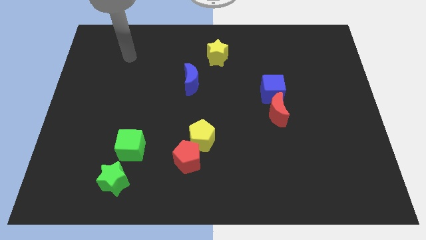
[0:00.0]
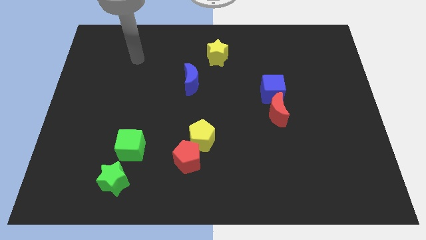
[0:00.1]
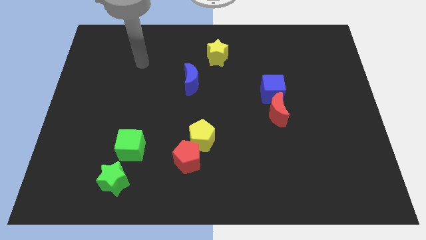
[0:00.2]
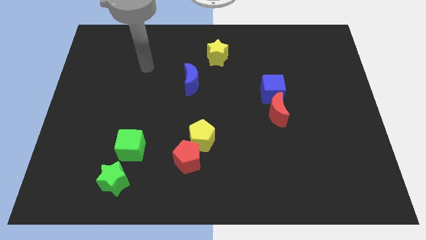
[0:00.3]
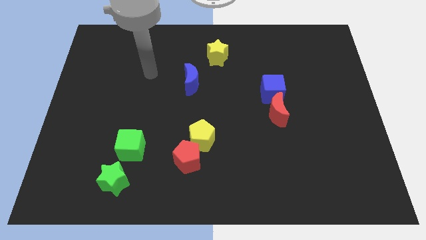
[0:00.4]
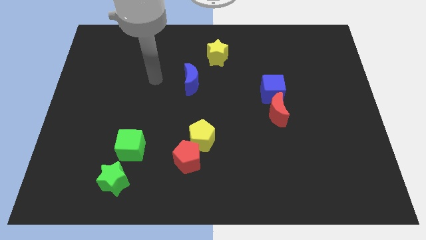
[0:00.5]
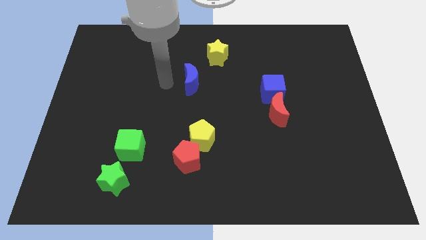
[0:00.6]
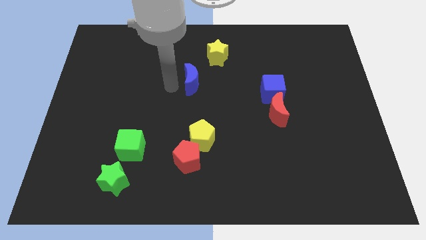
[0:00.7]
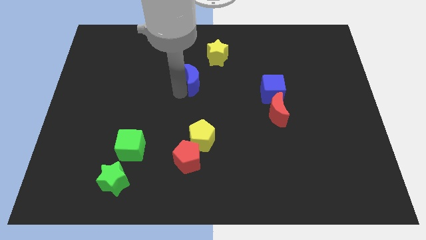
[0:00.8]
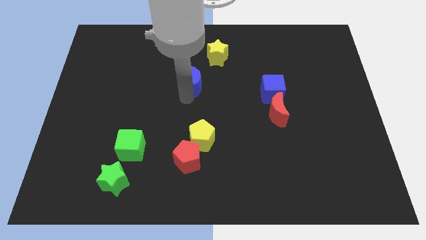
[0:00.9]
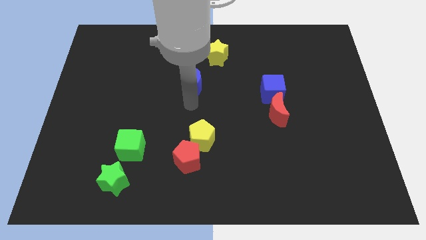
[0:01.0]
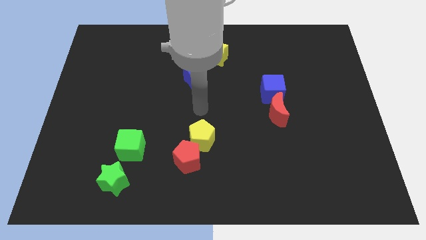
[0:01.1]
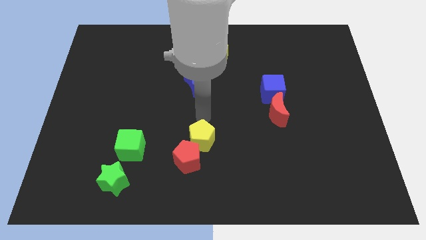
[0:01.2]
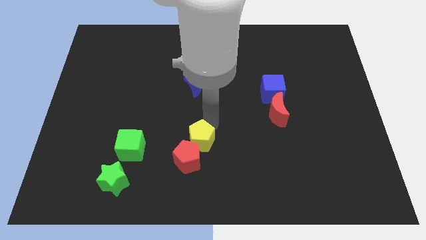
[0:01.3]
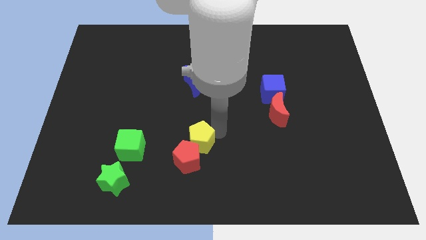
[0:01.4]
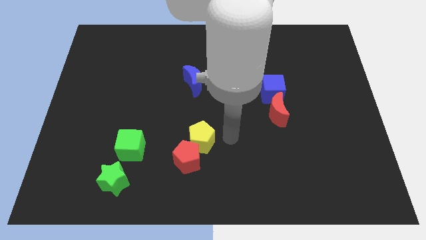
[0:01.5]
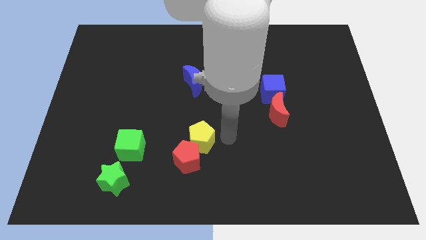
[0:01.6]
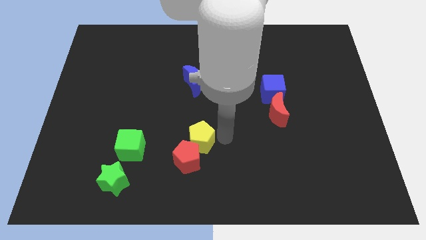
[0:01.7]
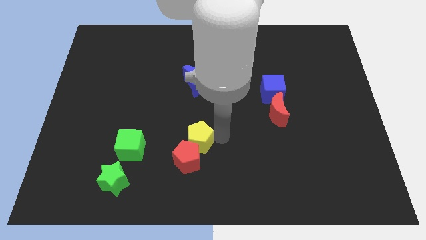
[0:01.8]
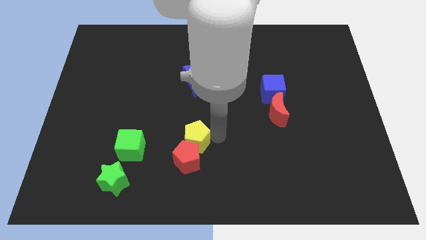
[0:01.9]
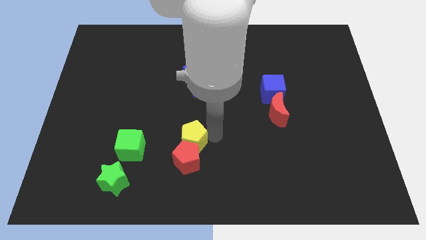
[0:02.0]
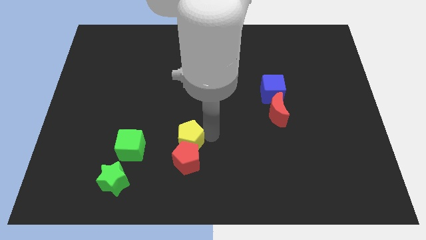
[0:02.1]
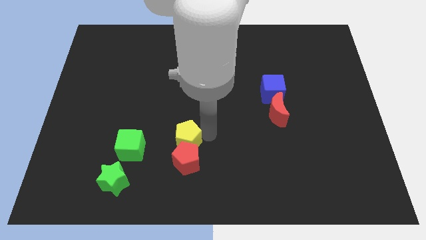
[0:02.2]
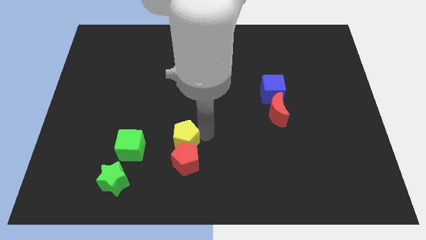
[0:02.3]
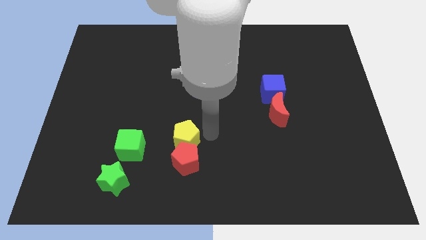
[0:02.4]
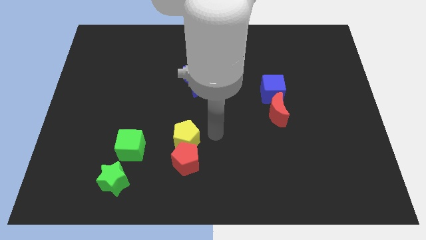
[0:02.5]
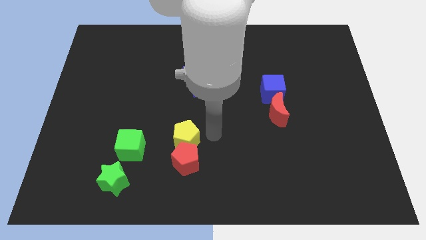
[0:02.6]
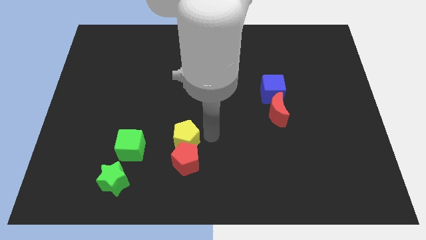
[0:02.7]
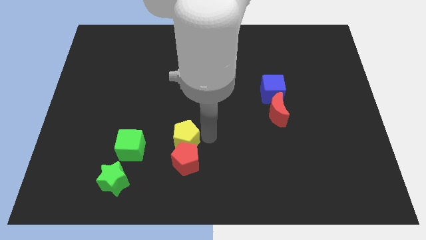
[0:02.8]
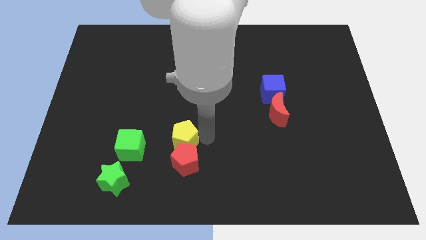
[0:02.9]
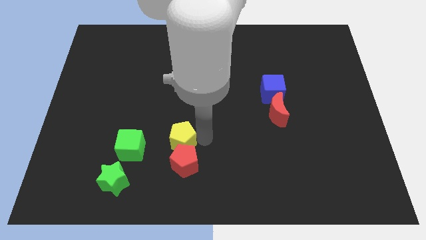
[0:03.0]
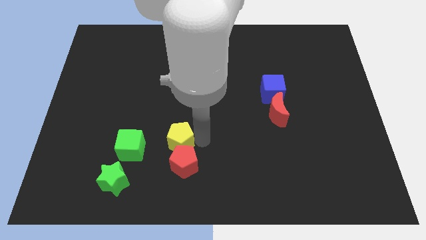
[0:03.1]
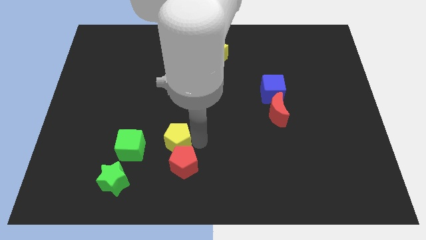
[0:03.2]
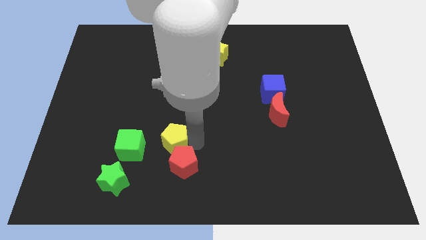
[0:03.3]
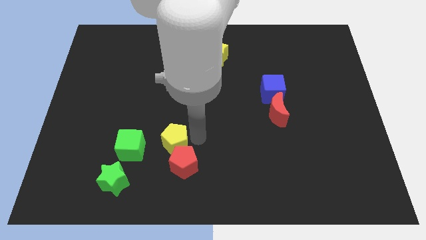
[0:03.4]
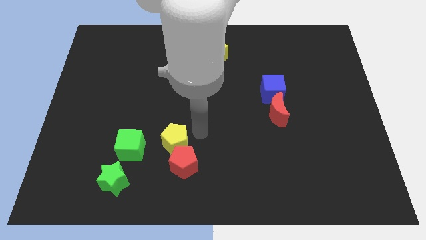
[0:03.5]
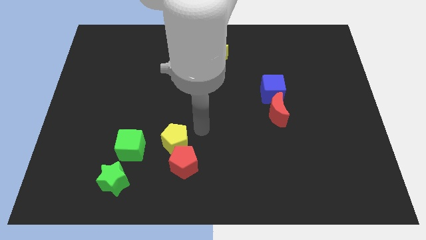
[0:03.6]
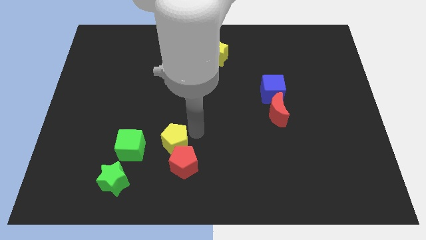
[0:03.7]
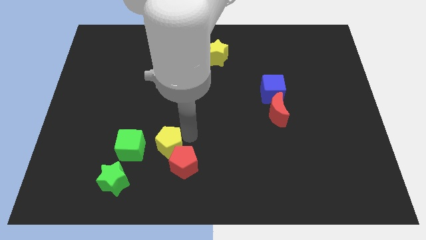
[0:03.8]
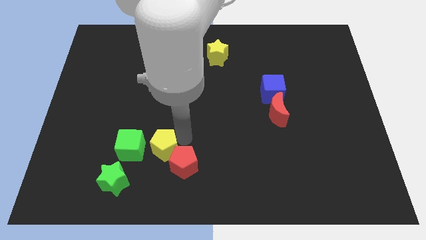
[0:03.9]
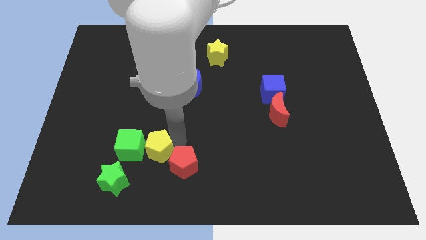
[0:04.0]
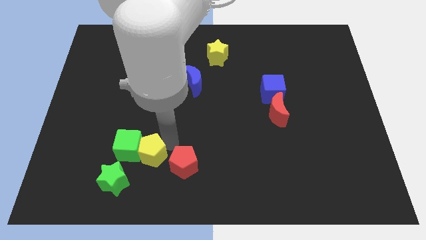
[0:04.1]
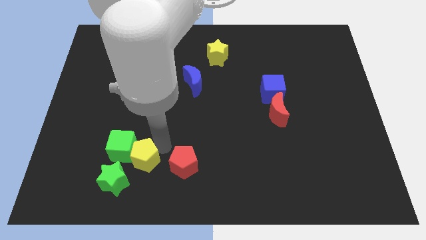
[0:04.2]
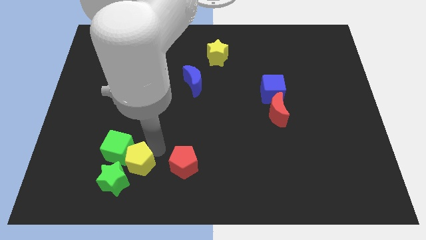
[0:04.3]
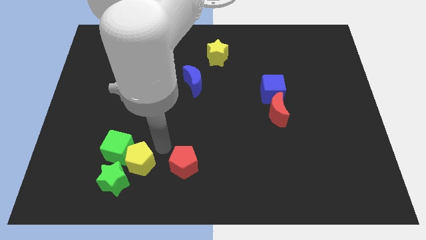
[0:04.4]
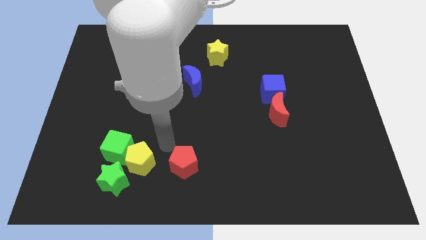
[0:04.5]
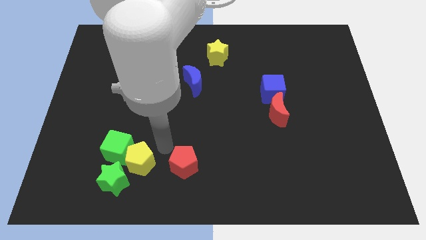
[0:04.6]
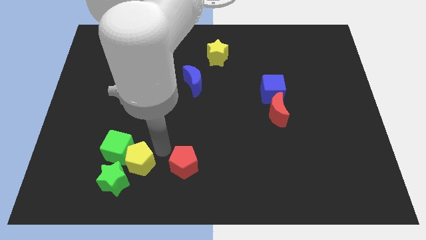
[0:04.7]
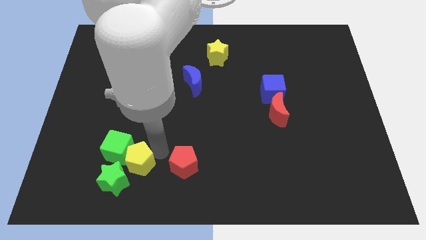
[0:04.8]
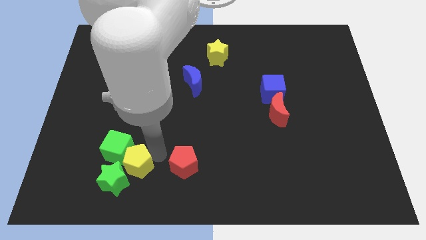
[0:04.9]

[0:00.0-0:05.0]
push the yellow pentagon next to the green star

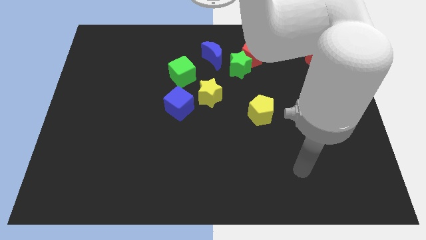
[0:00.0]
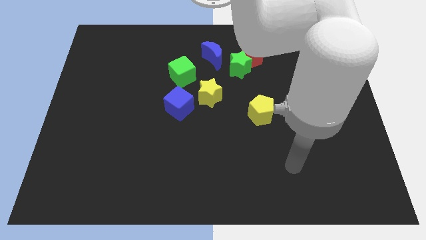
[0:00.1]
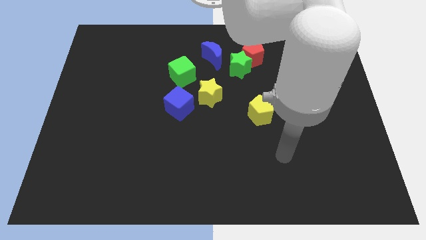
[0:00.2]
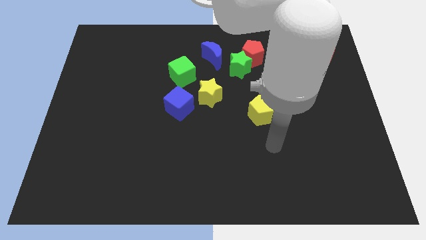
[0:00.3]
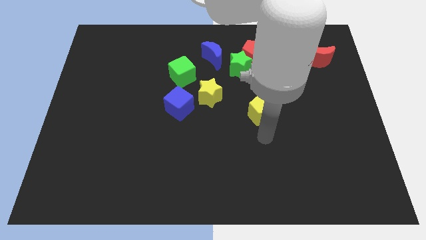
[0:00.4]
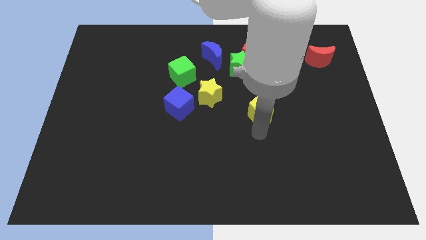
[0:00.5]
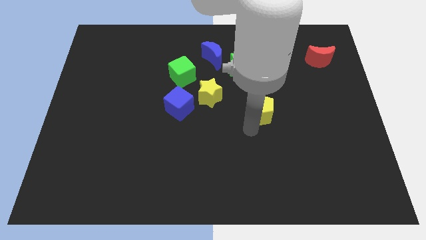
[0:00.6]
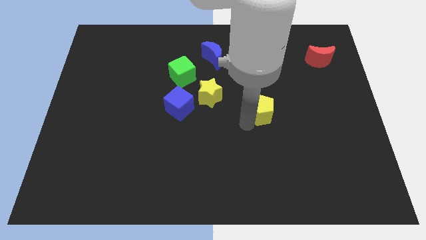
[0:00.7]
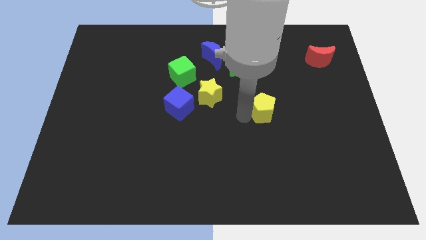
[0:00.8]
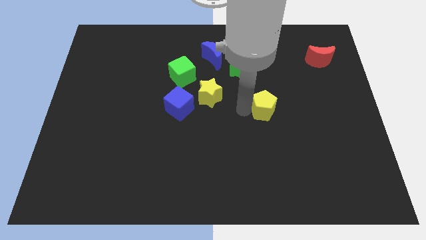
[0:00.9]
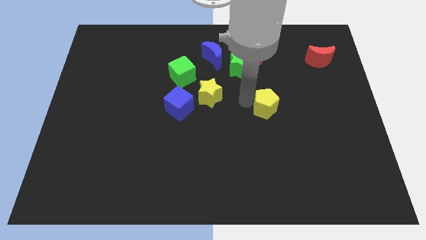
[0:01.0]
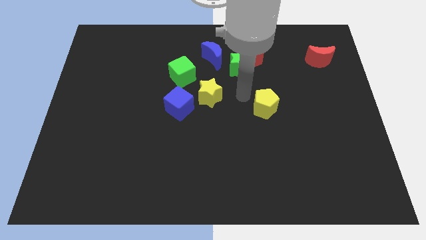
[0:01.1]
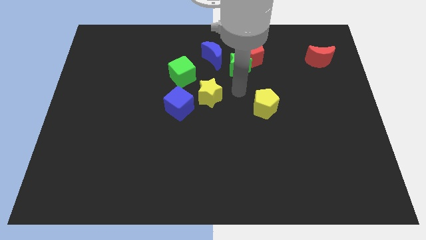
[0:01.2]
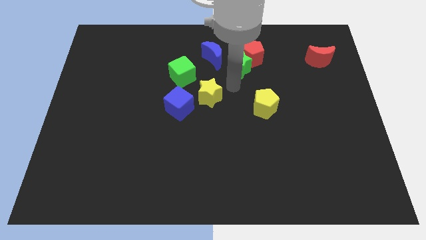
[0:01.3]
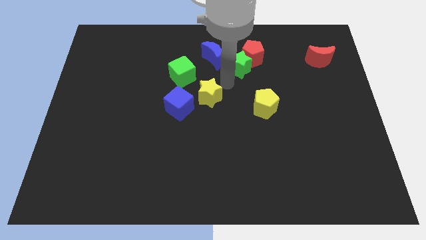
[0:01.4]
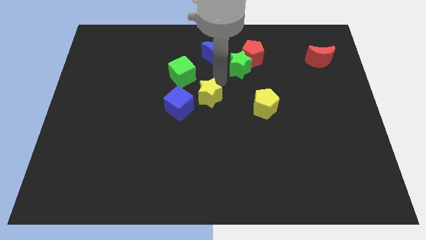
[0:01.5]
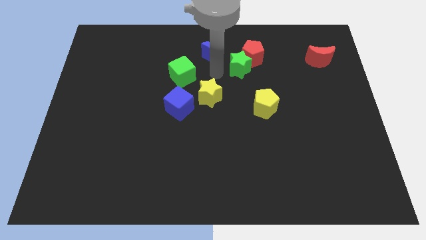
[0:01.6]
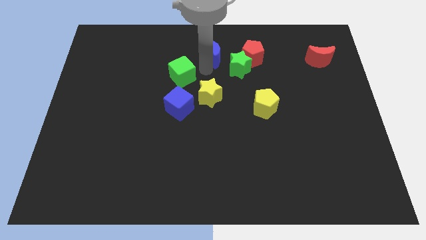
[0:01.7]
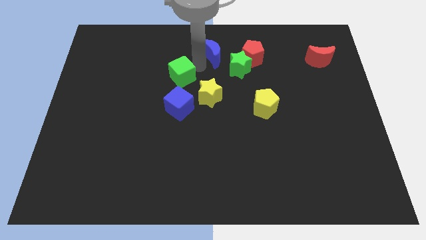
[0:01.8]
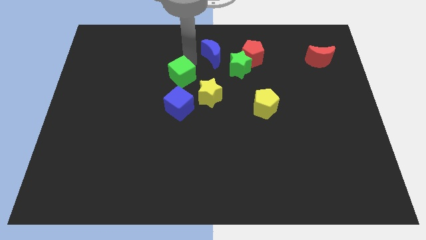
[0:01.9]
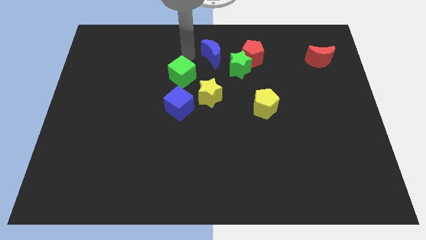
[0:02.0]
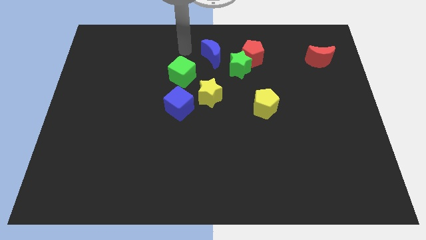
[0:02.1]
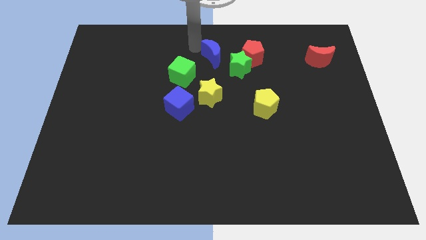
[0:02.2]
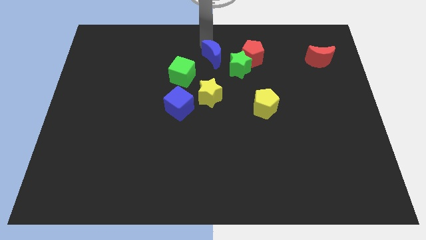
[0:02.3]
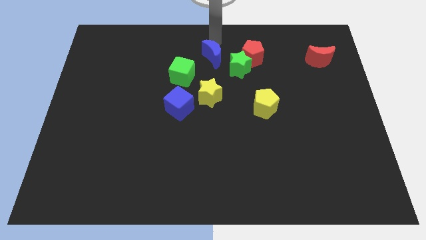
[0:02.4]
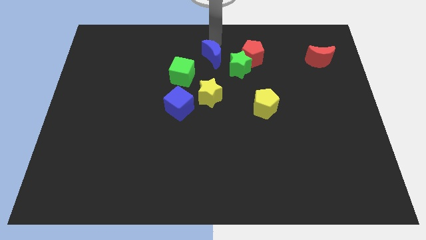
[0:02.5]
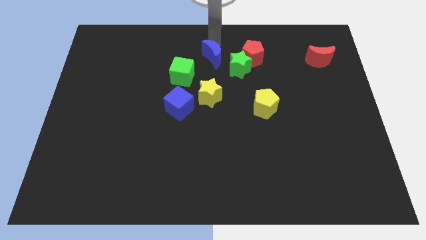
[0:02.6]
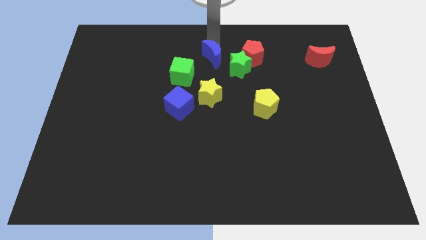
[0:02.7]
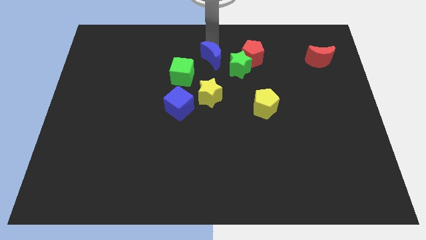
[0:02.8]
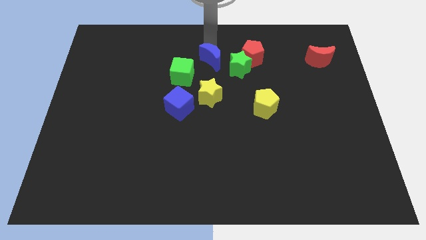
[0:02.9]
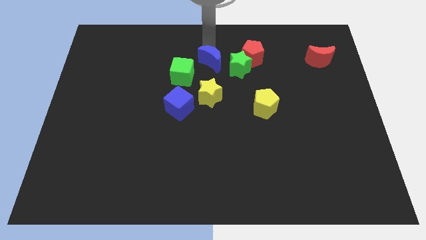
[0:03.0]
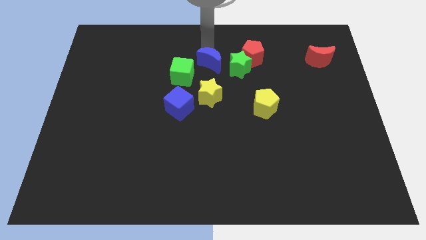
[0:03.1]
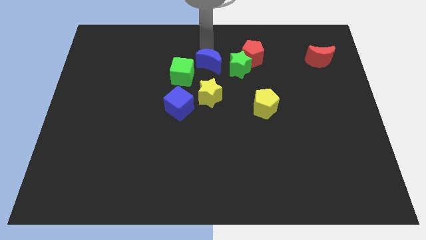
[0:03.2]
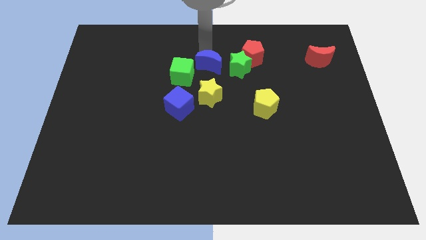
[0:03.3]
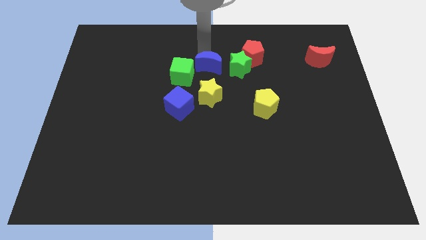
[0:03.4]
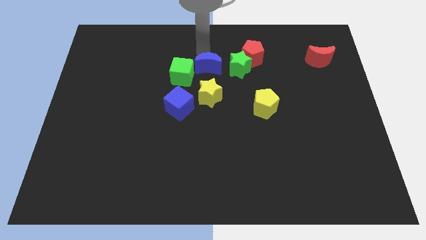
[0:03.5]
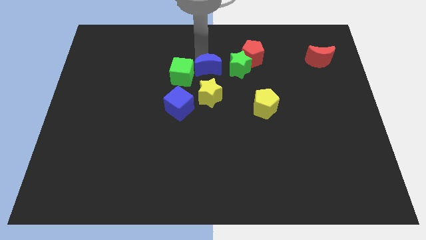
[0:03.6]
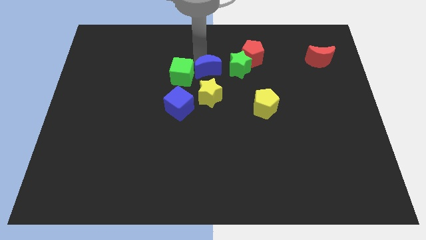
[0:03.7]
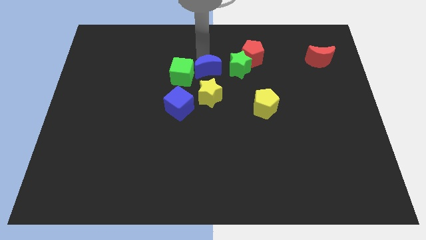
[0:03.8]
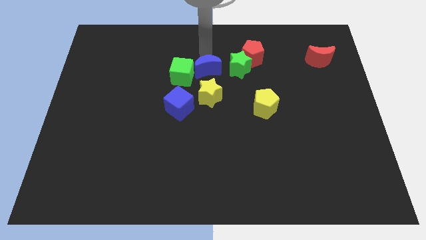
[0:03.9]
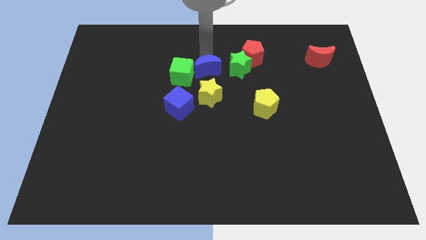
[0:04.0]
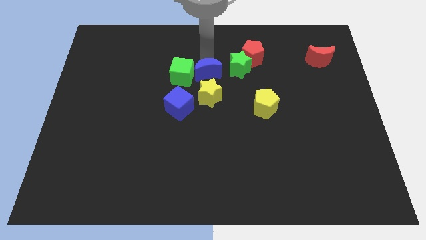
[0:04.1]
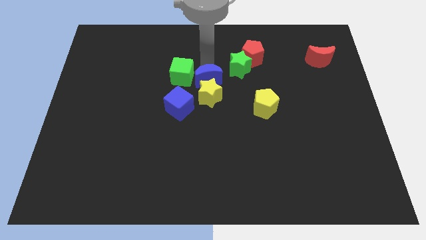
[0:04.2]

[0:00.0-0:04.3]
move the blue moon next to the yellow star
